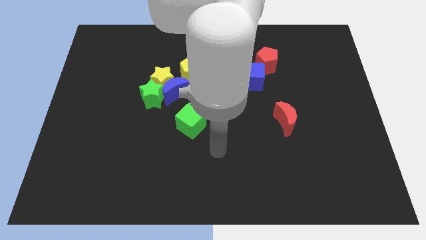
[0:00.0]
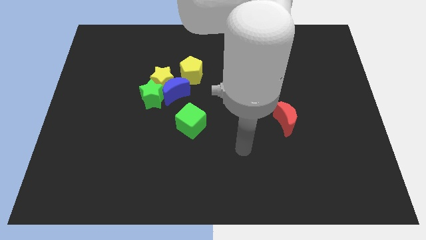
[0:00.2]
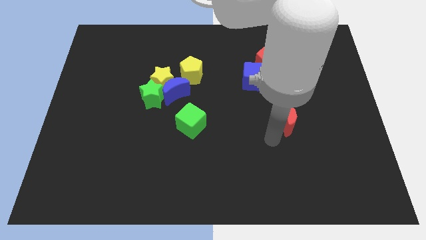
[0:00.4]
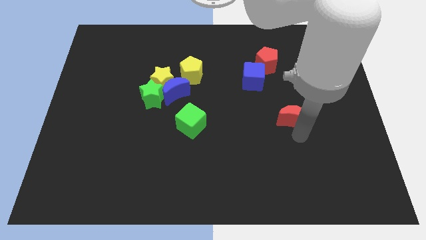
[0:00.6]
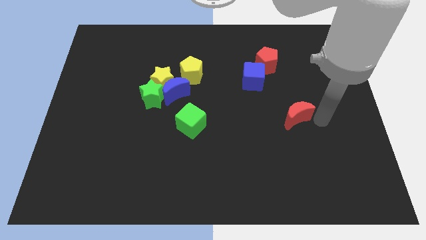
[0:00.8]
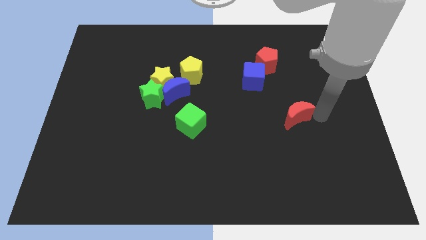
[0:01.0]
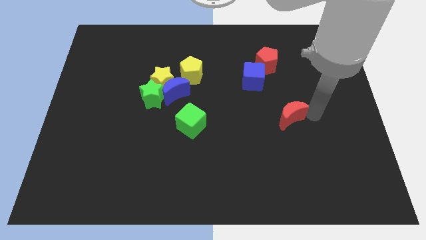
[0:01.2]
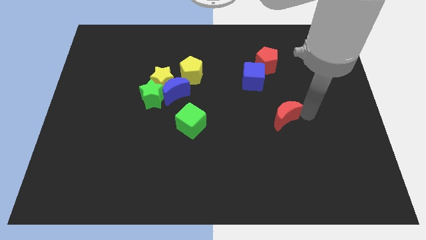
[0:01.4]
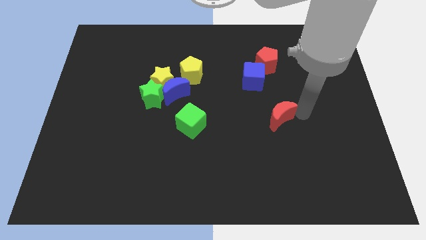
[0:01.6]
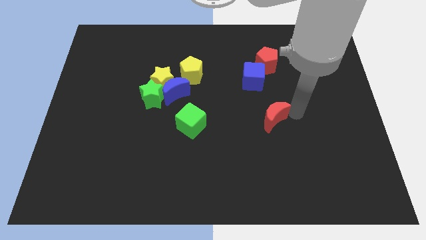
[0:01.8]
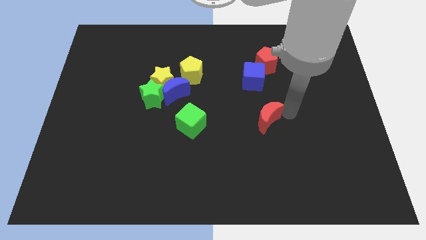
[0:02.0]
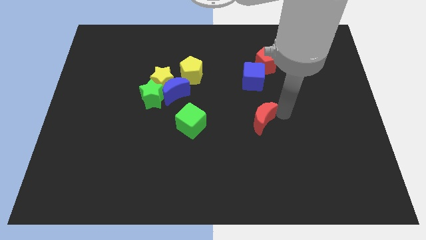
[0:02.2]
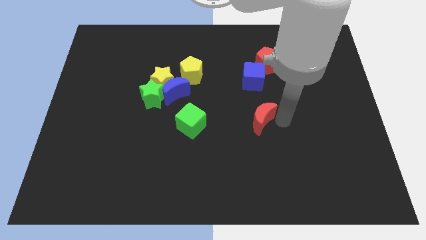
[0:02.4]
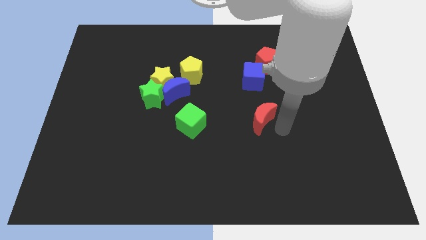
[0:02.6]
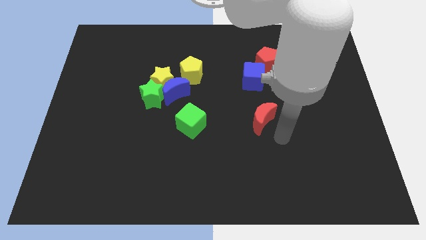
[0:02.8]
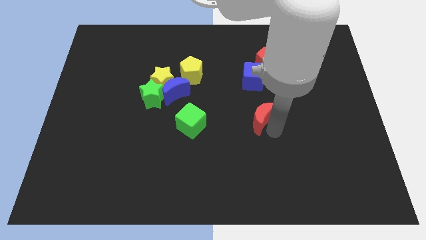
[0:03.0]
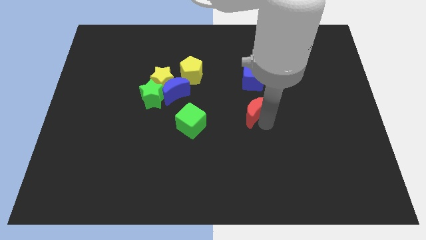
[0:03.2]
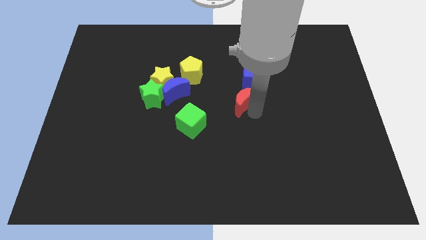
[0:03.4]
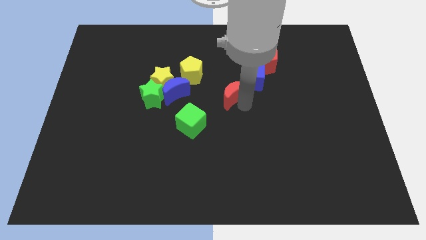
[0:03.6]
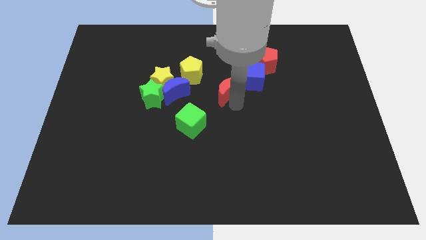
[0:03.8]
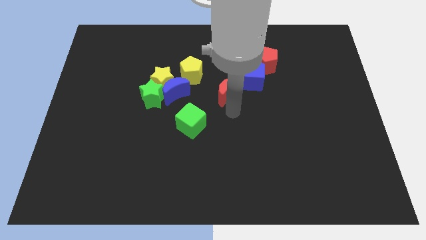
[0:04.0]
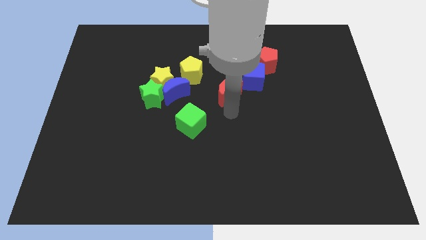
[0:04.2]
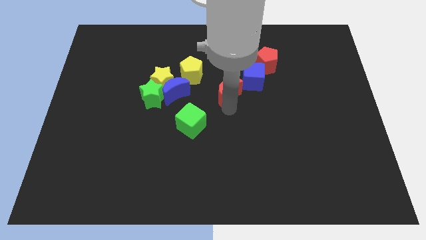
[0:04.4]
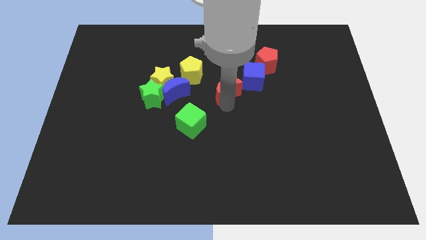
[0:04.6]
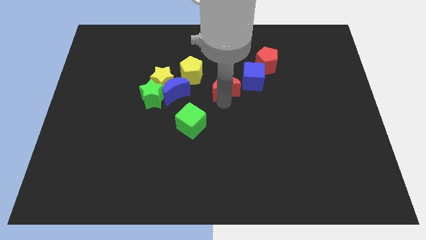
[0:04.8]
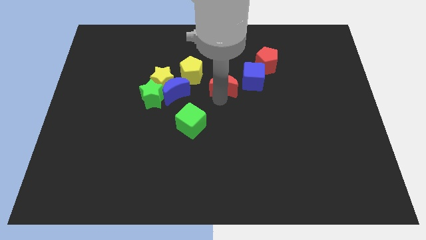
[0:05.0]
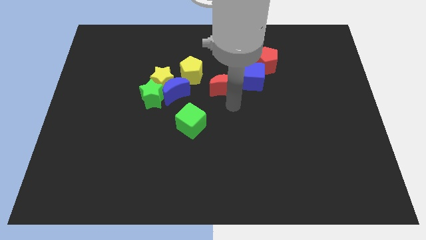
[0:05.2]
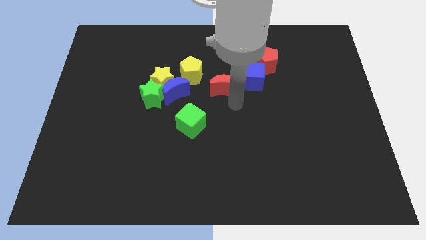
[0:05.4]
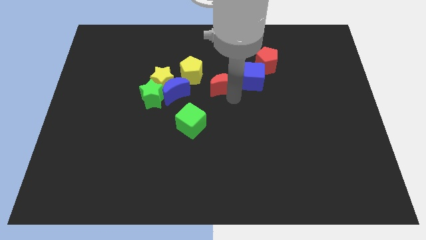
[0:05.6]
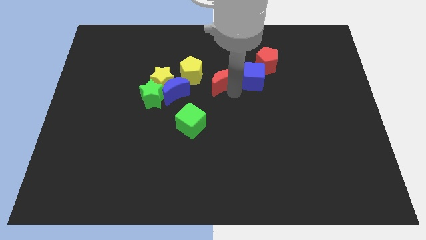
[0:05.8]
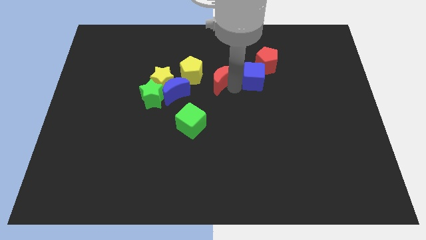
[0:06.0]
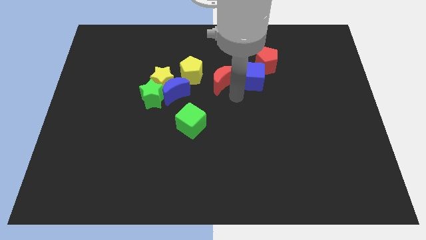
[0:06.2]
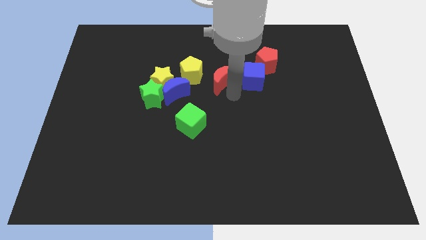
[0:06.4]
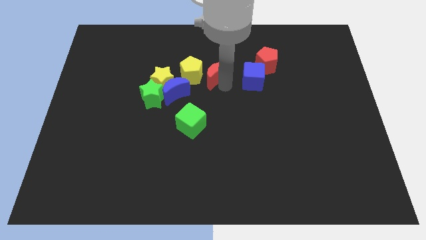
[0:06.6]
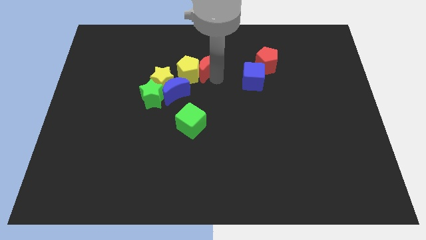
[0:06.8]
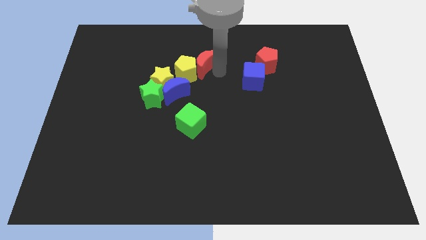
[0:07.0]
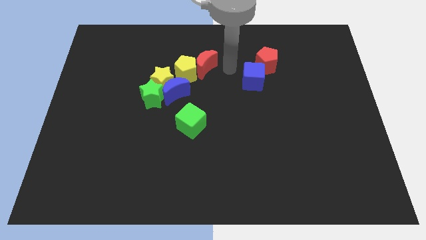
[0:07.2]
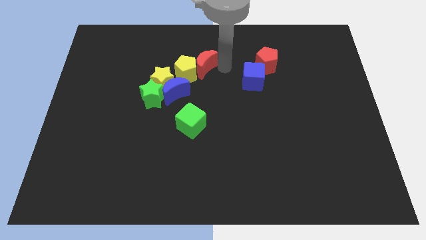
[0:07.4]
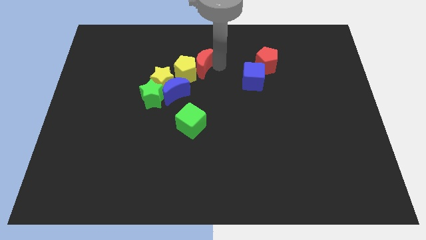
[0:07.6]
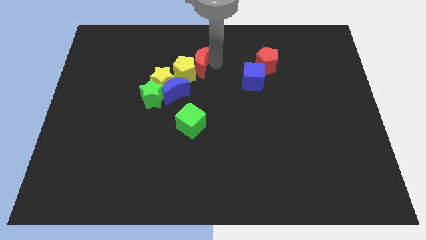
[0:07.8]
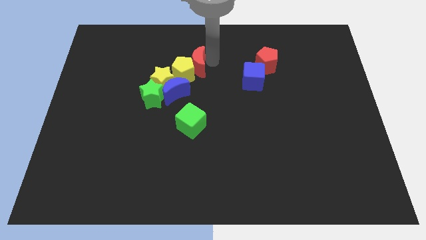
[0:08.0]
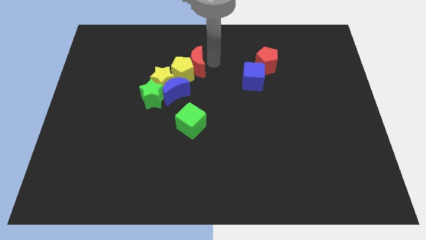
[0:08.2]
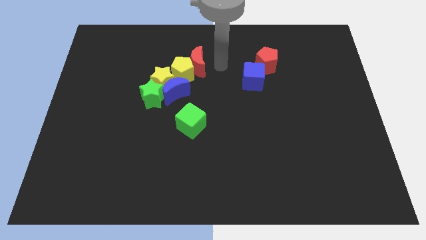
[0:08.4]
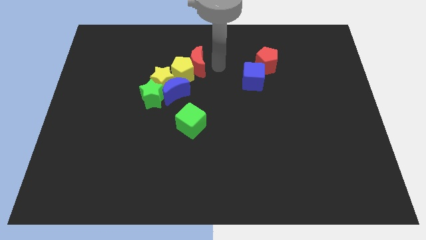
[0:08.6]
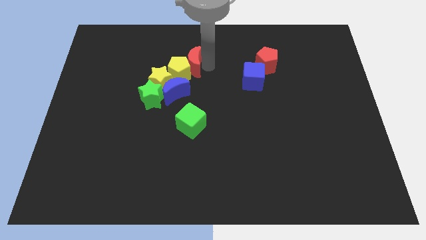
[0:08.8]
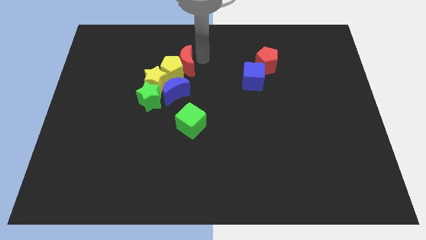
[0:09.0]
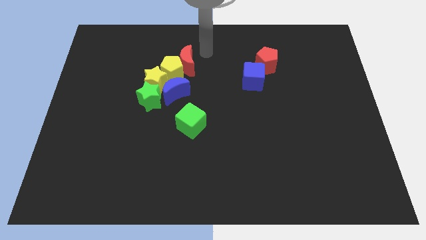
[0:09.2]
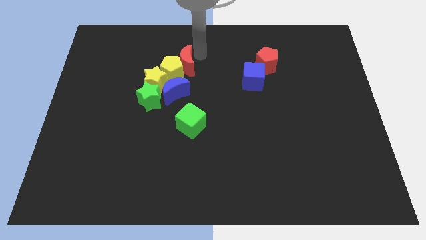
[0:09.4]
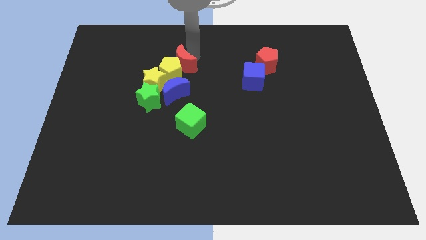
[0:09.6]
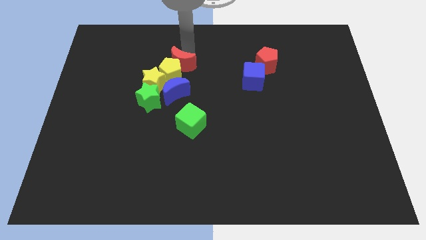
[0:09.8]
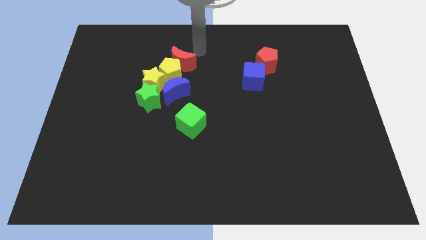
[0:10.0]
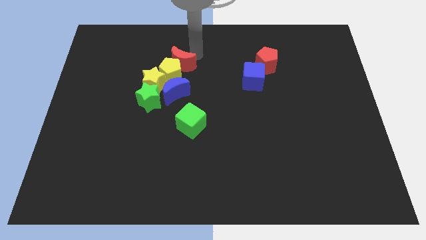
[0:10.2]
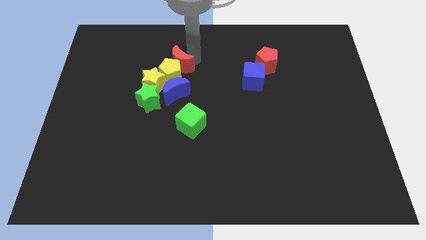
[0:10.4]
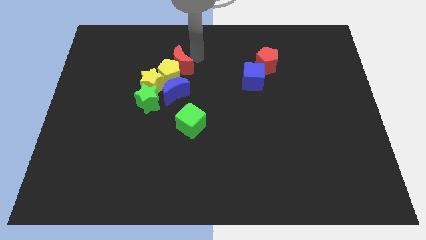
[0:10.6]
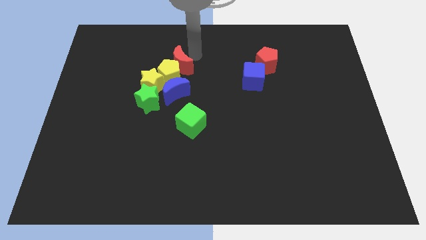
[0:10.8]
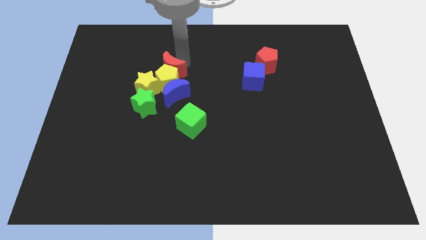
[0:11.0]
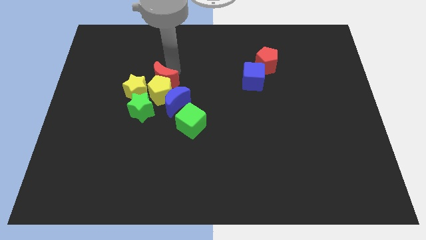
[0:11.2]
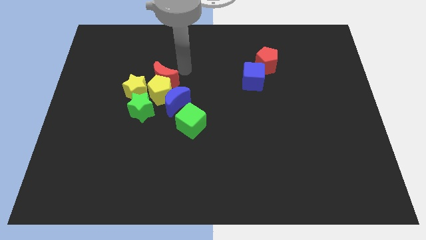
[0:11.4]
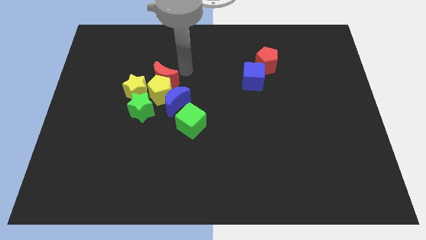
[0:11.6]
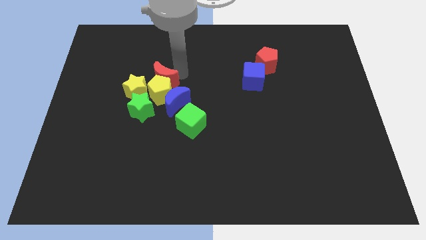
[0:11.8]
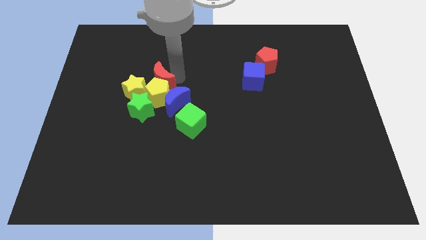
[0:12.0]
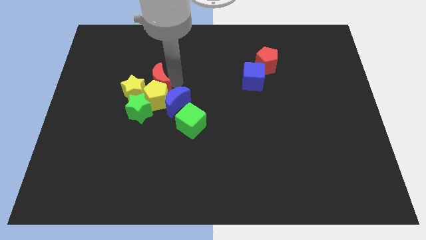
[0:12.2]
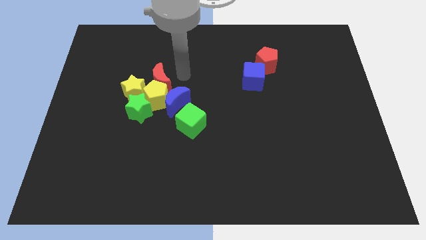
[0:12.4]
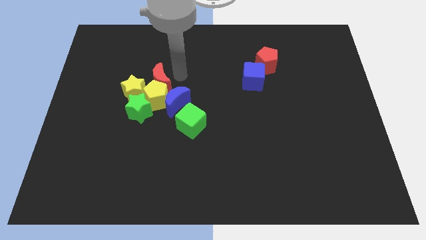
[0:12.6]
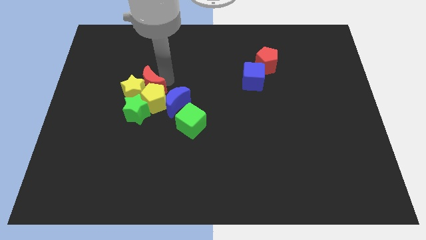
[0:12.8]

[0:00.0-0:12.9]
slide the red moon next to the yellow star

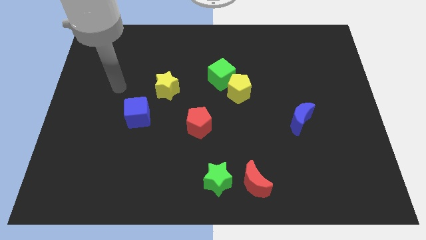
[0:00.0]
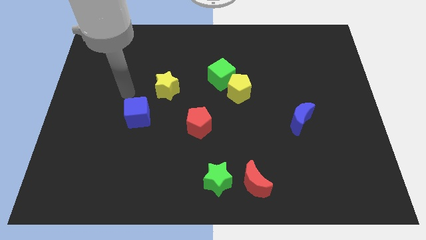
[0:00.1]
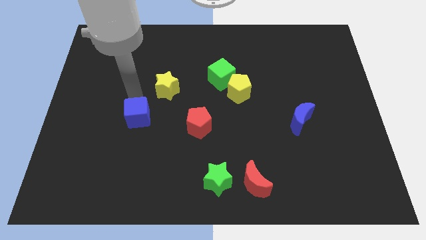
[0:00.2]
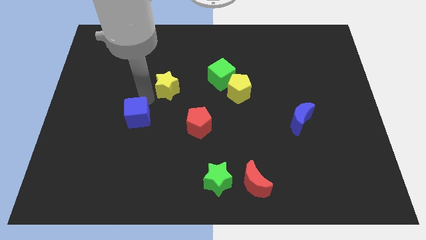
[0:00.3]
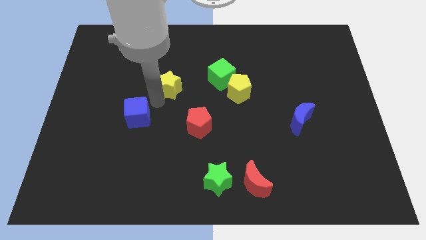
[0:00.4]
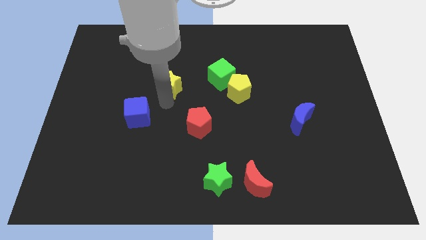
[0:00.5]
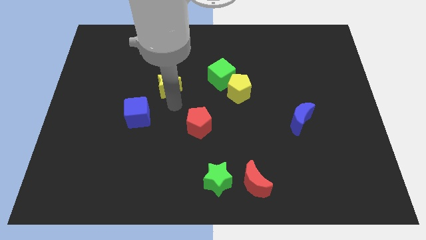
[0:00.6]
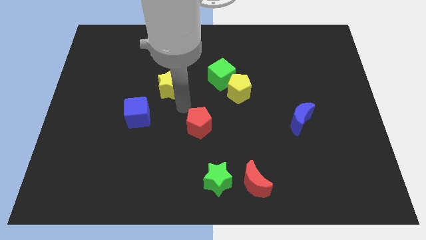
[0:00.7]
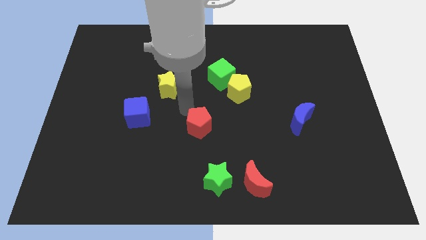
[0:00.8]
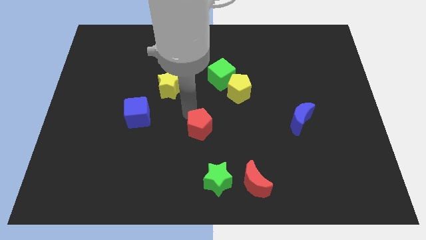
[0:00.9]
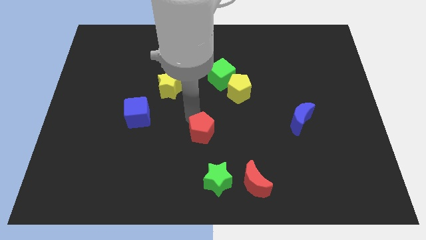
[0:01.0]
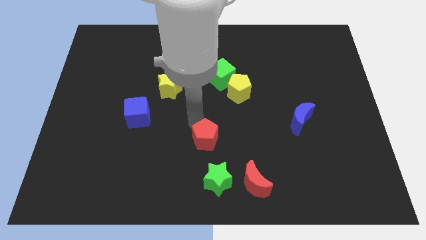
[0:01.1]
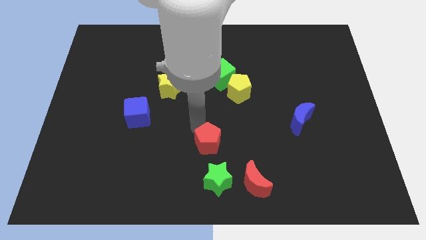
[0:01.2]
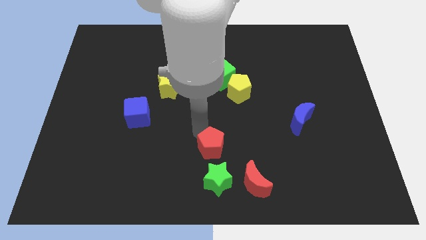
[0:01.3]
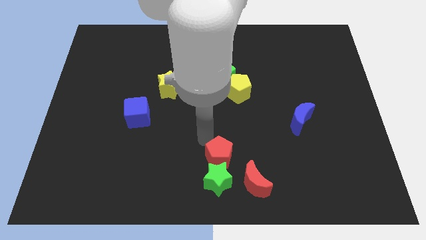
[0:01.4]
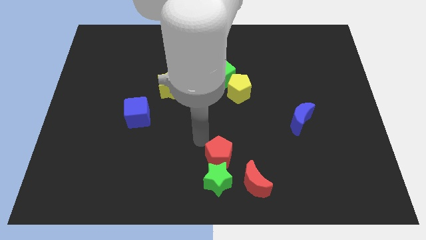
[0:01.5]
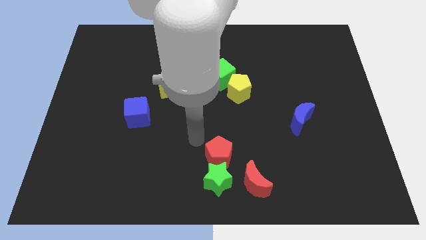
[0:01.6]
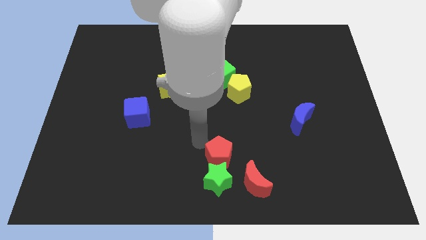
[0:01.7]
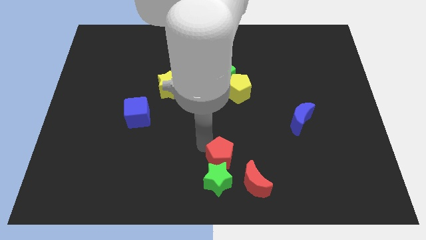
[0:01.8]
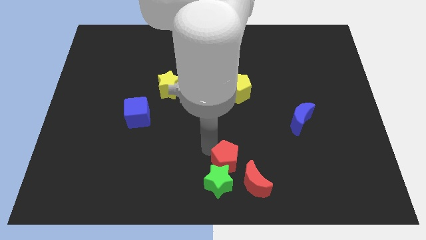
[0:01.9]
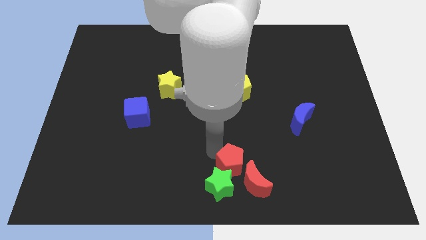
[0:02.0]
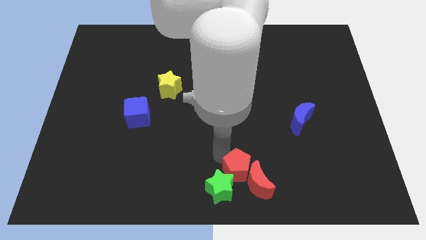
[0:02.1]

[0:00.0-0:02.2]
push the red pentagon close to the red moon
